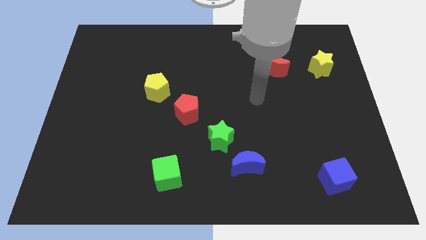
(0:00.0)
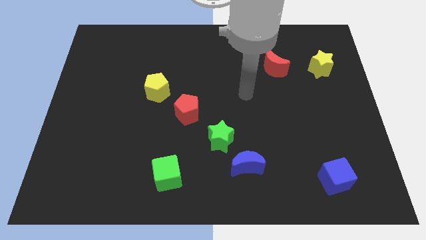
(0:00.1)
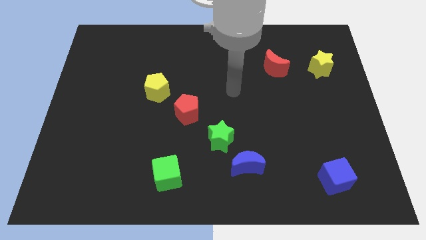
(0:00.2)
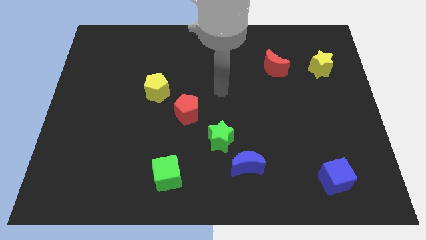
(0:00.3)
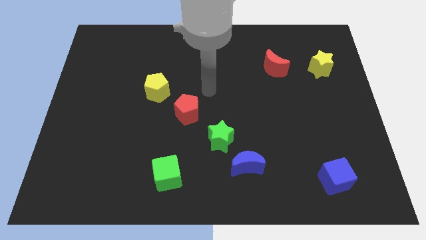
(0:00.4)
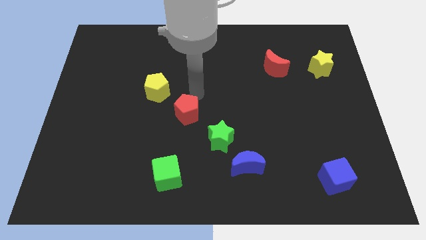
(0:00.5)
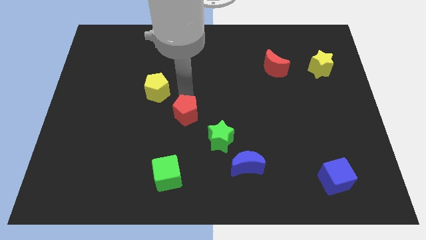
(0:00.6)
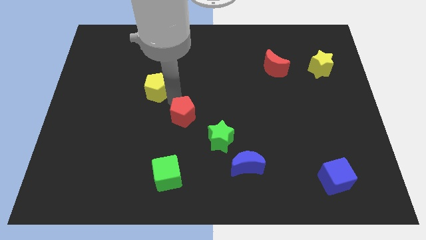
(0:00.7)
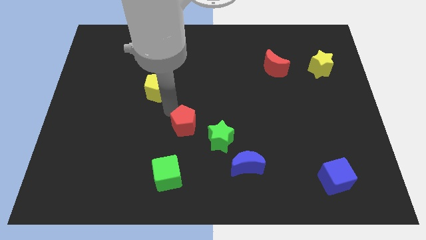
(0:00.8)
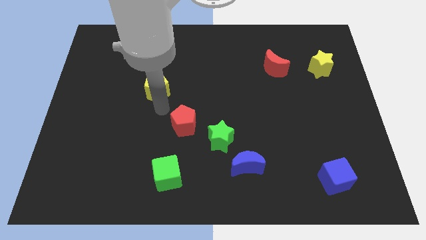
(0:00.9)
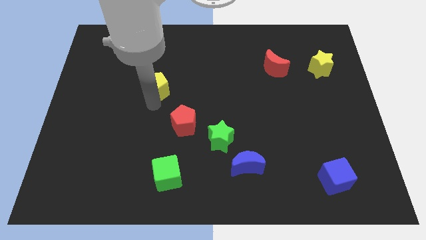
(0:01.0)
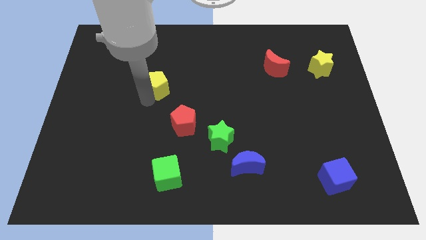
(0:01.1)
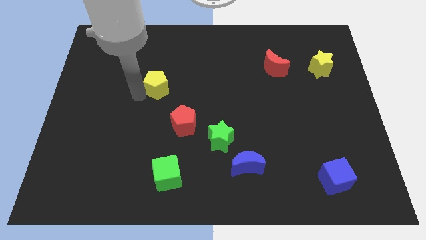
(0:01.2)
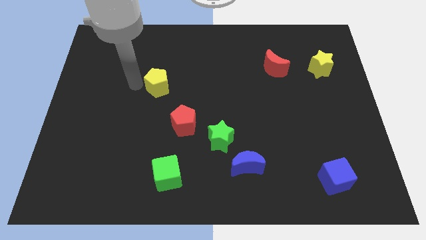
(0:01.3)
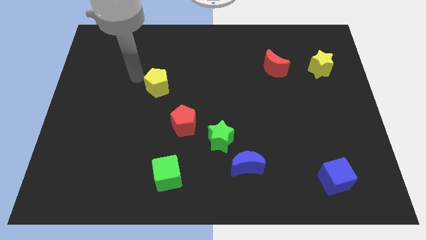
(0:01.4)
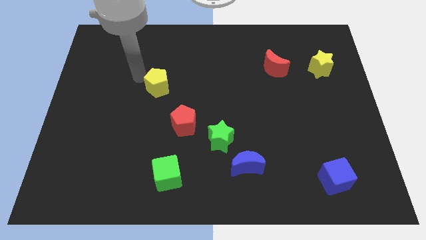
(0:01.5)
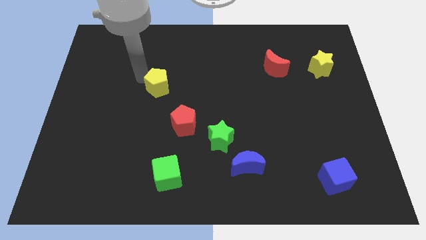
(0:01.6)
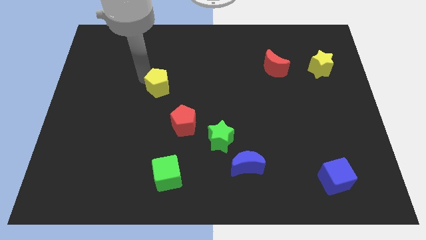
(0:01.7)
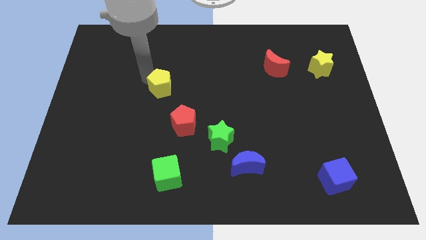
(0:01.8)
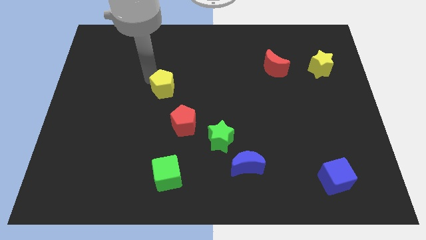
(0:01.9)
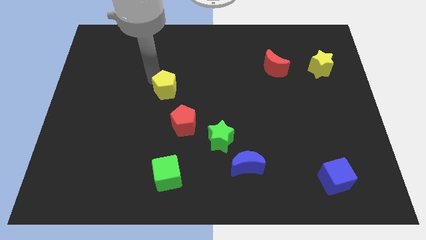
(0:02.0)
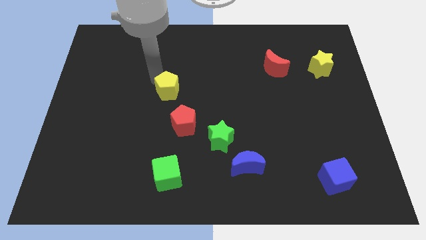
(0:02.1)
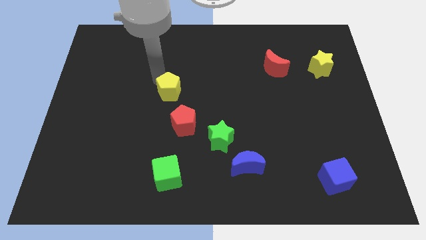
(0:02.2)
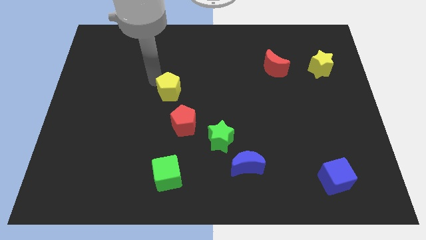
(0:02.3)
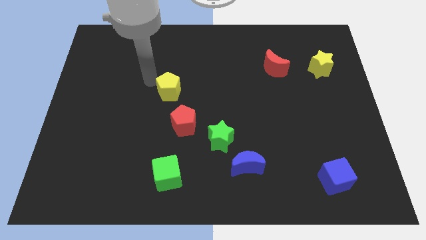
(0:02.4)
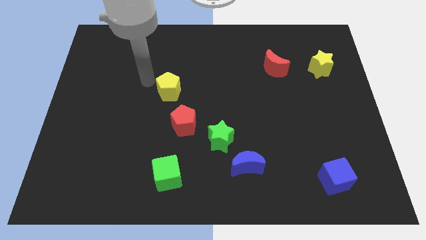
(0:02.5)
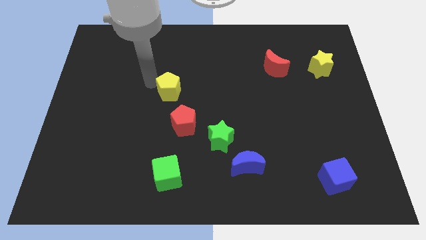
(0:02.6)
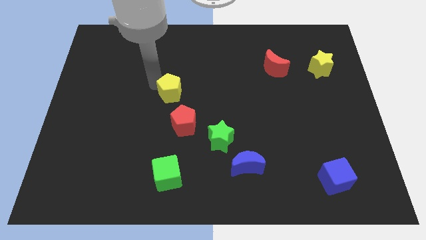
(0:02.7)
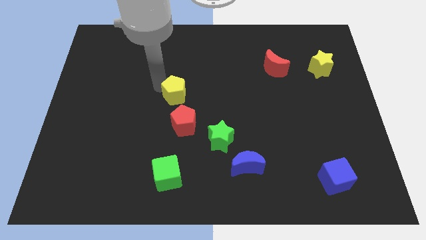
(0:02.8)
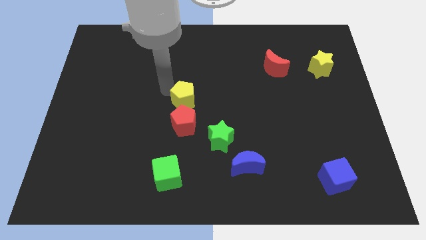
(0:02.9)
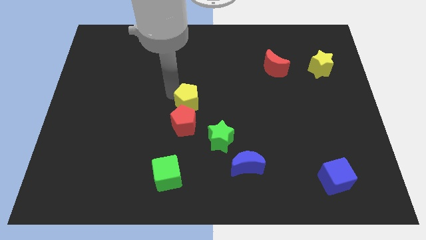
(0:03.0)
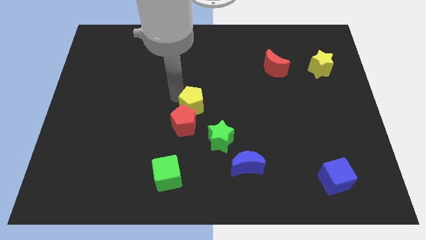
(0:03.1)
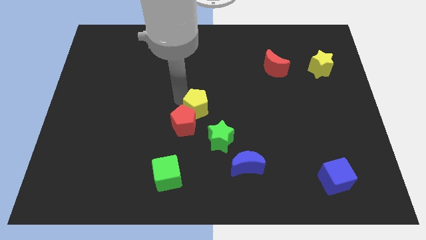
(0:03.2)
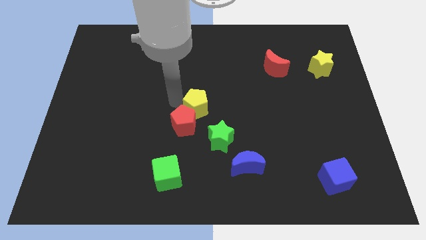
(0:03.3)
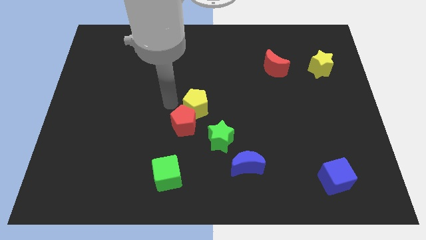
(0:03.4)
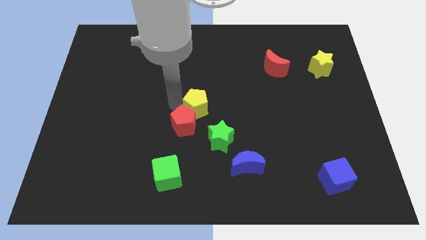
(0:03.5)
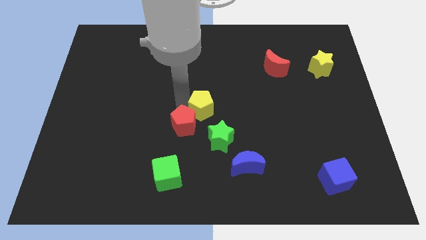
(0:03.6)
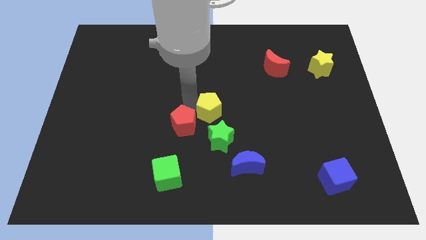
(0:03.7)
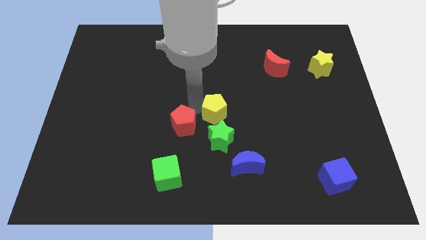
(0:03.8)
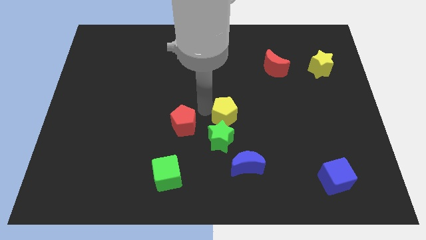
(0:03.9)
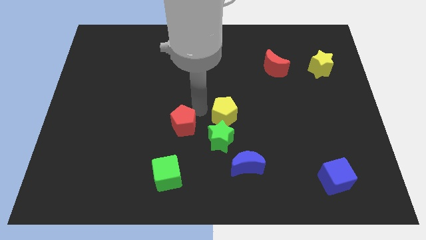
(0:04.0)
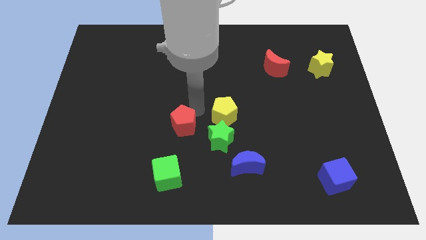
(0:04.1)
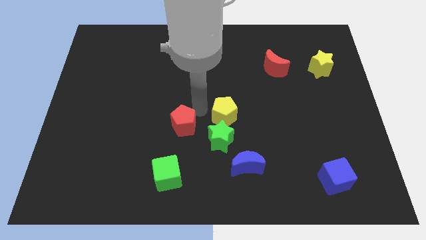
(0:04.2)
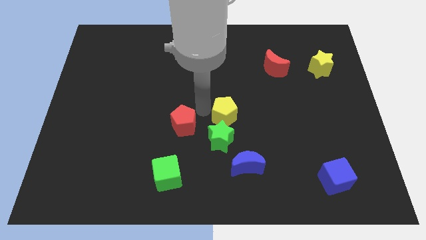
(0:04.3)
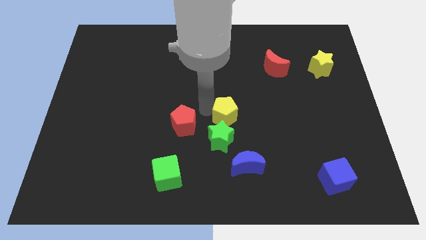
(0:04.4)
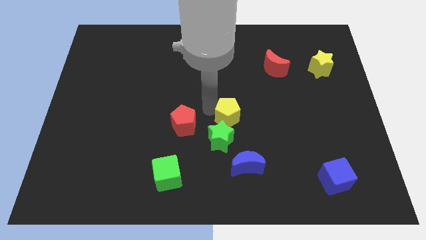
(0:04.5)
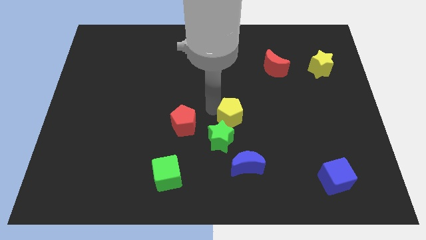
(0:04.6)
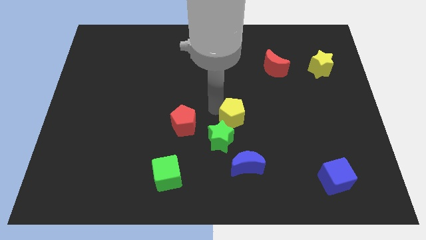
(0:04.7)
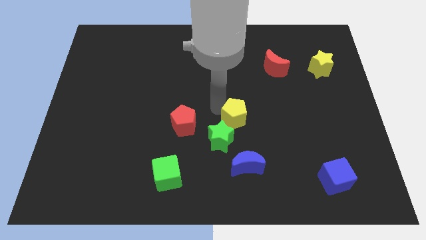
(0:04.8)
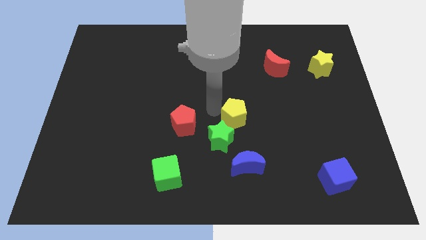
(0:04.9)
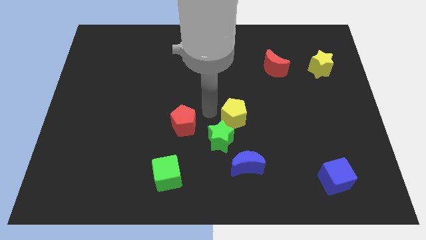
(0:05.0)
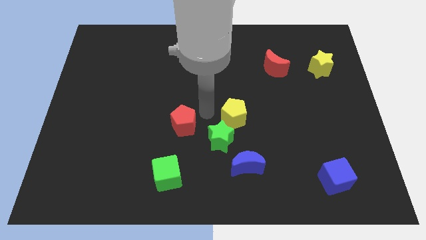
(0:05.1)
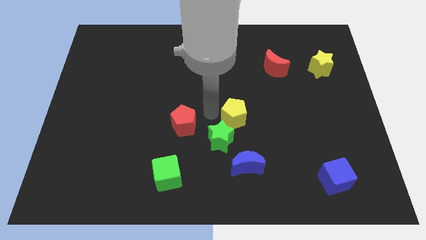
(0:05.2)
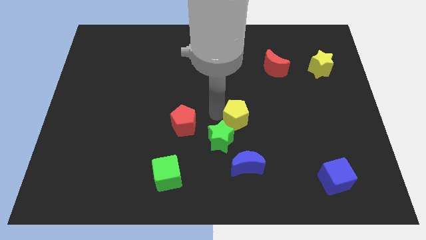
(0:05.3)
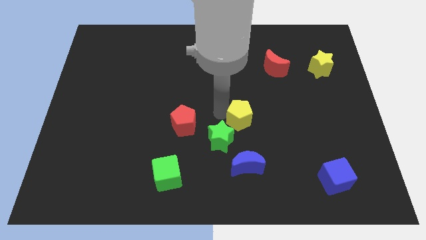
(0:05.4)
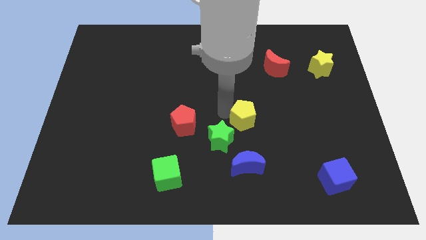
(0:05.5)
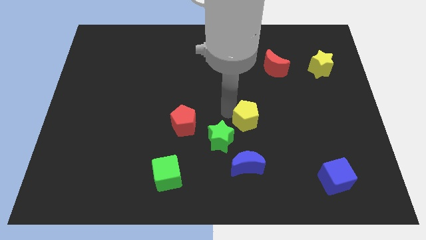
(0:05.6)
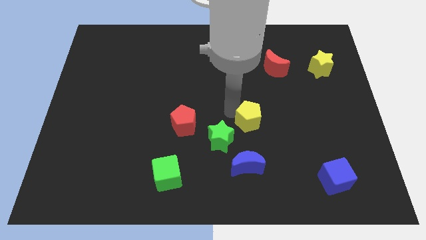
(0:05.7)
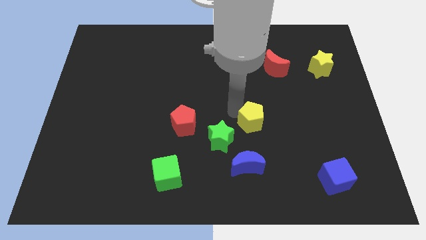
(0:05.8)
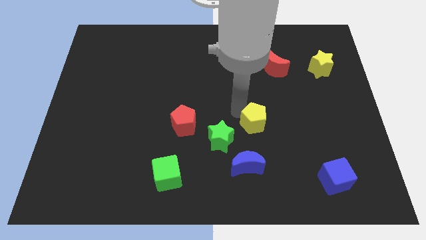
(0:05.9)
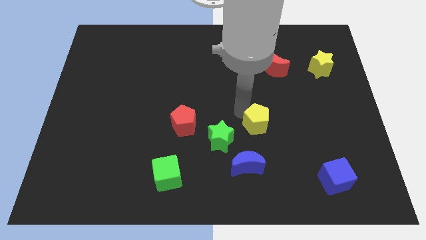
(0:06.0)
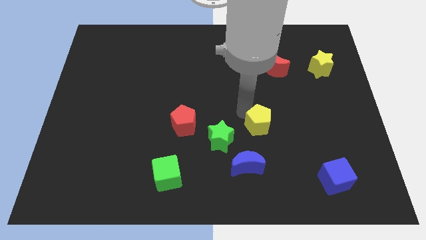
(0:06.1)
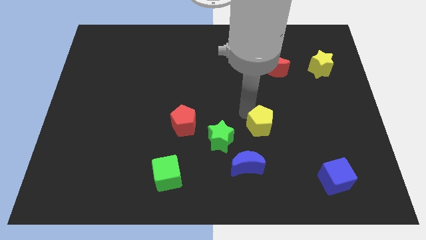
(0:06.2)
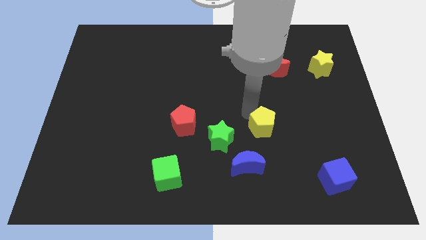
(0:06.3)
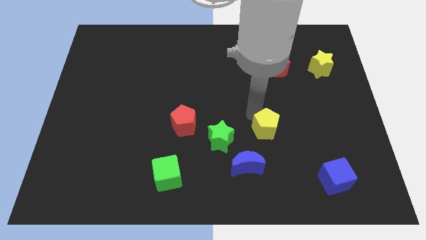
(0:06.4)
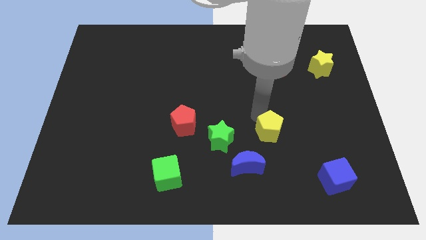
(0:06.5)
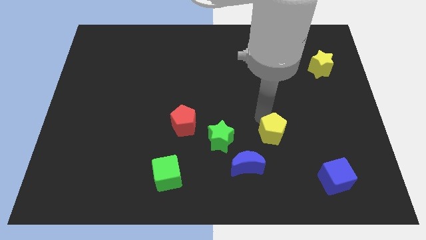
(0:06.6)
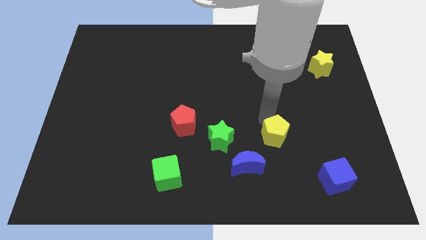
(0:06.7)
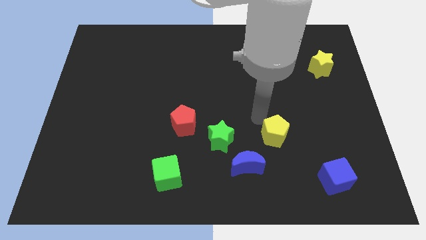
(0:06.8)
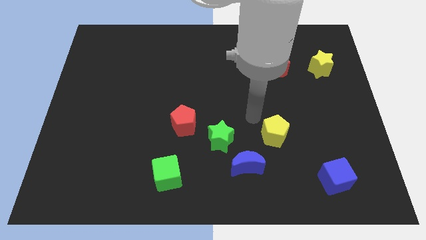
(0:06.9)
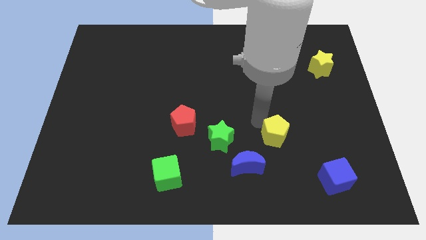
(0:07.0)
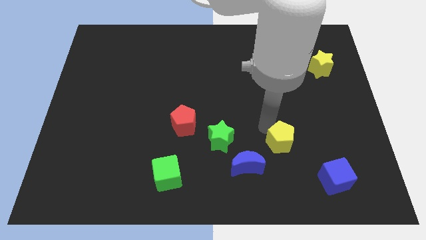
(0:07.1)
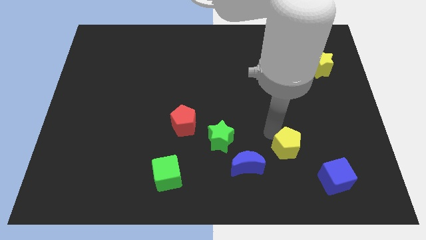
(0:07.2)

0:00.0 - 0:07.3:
push the yellow pentagon diagonally up and to the left of the blue cube
